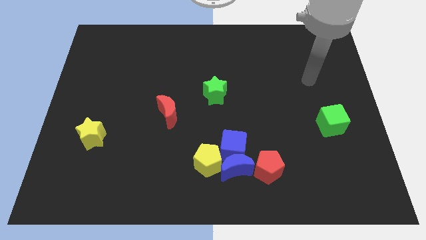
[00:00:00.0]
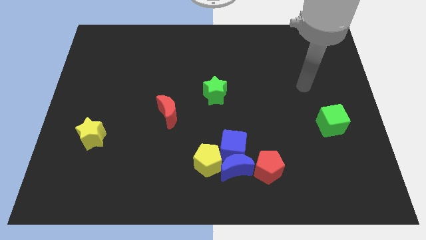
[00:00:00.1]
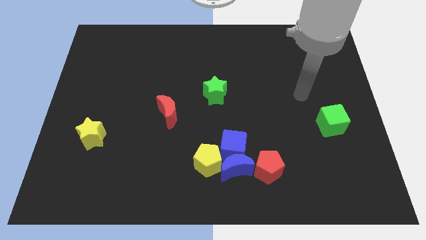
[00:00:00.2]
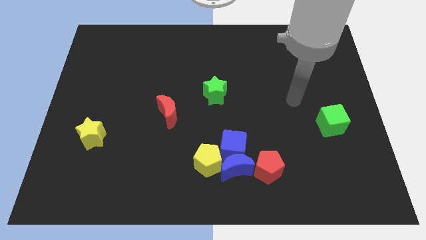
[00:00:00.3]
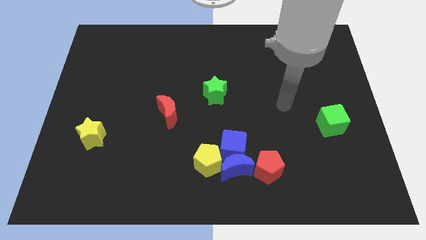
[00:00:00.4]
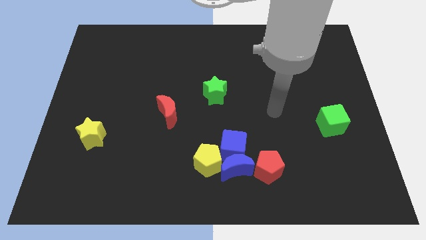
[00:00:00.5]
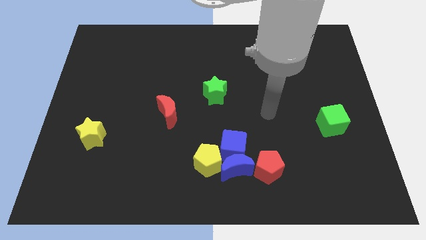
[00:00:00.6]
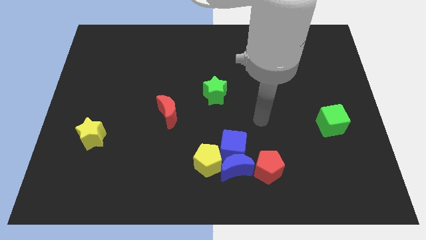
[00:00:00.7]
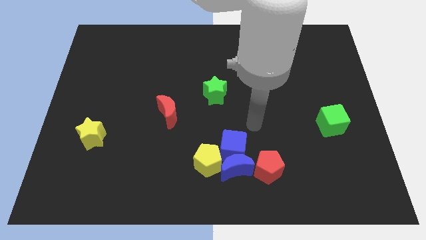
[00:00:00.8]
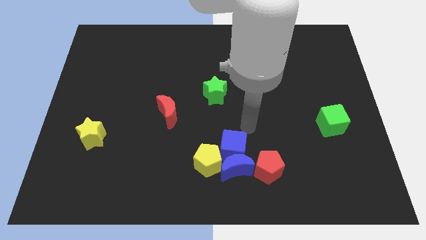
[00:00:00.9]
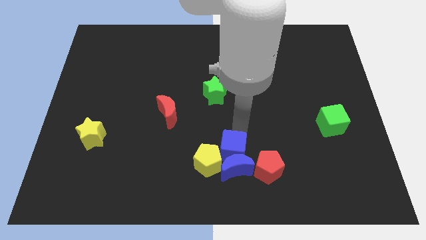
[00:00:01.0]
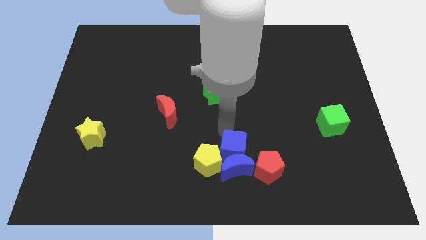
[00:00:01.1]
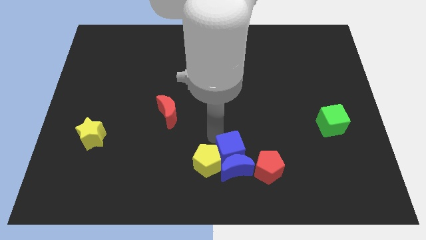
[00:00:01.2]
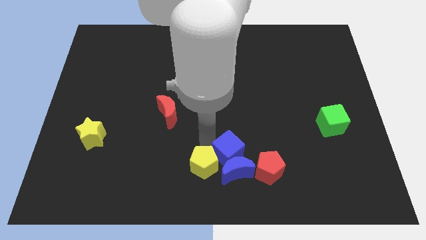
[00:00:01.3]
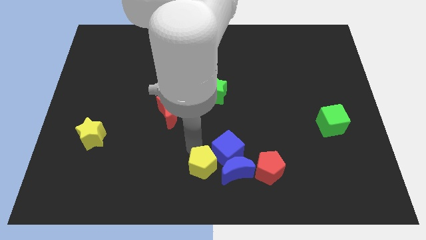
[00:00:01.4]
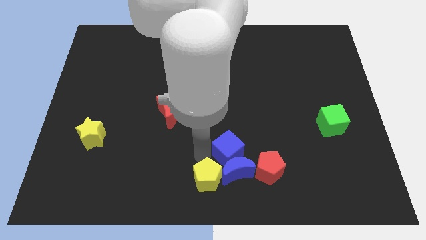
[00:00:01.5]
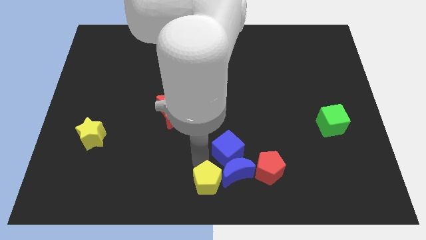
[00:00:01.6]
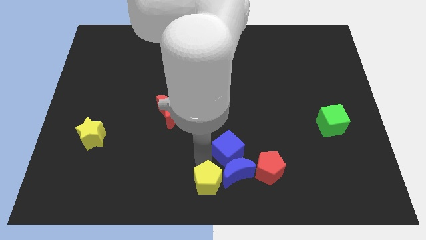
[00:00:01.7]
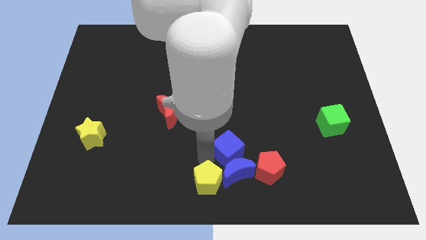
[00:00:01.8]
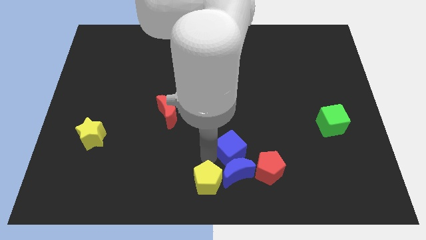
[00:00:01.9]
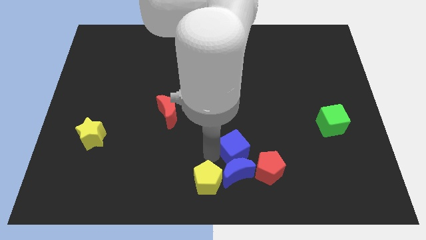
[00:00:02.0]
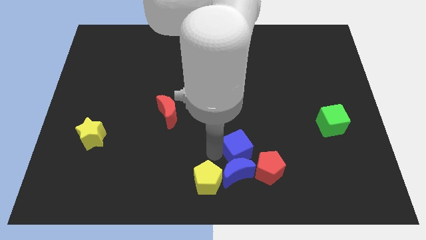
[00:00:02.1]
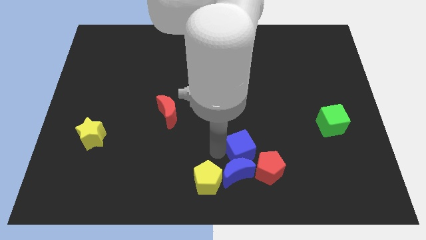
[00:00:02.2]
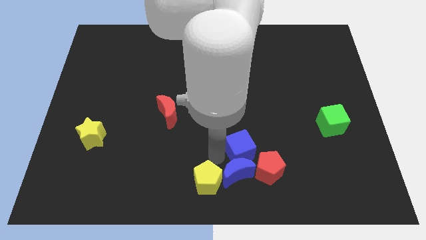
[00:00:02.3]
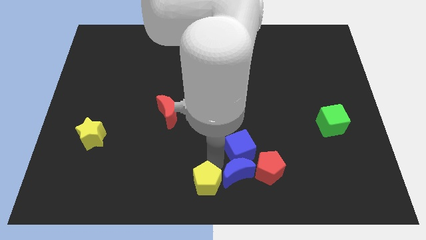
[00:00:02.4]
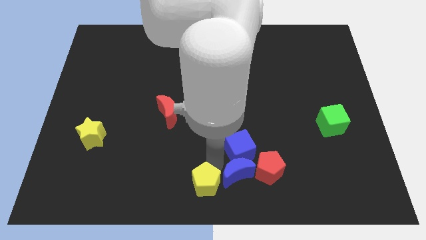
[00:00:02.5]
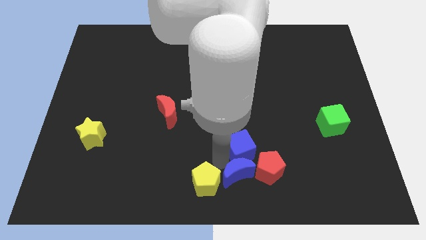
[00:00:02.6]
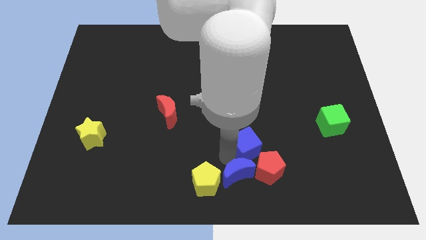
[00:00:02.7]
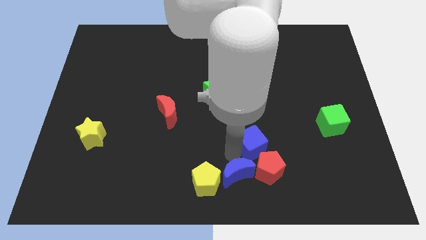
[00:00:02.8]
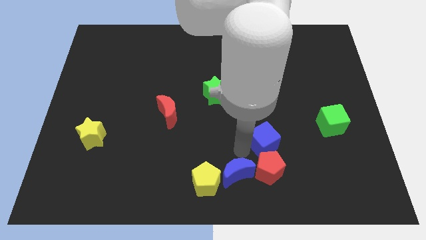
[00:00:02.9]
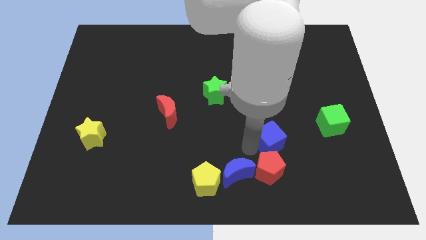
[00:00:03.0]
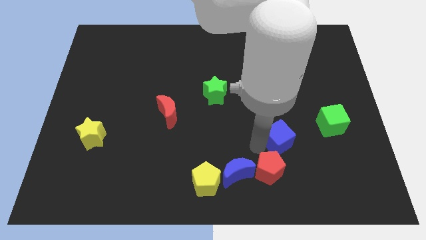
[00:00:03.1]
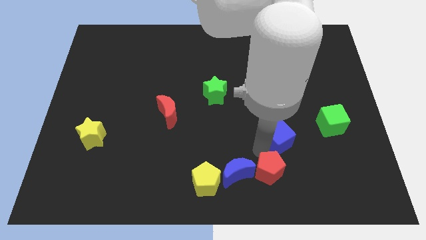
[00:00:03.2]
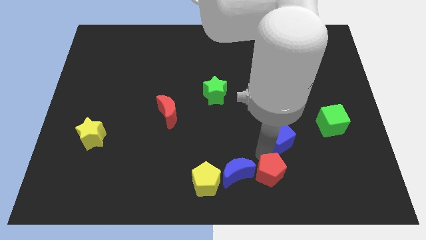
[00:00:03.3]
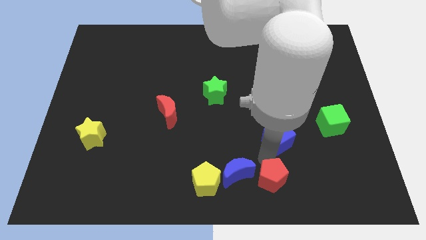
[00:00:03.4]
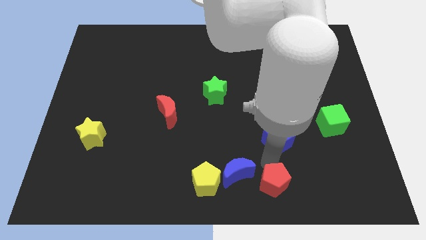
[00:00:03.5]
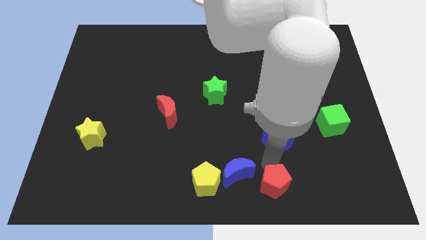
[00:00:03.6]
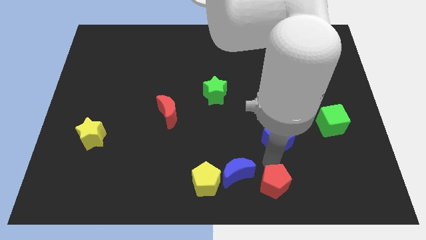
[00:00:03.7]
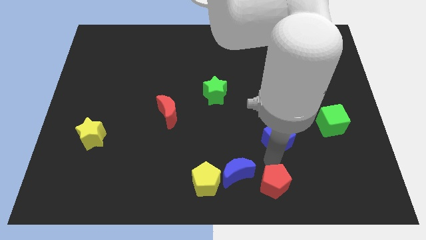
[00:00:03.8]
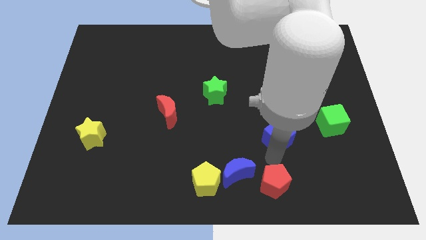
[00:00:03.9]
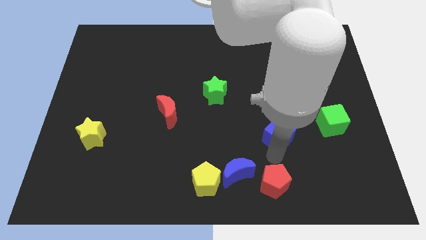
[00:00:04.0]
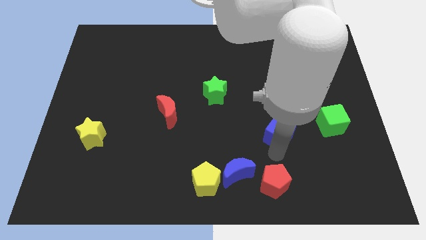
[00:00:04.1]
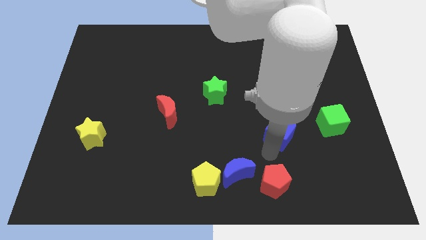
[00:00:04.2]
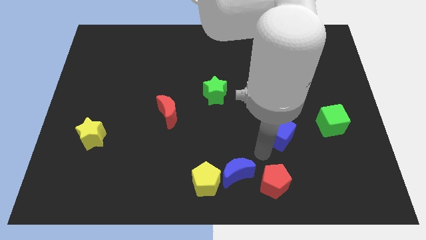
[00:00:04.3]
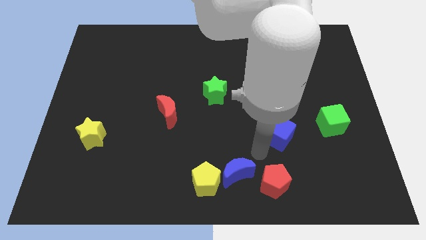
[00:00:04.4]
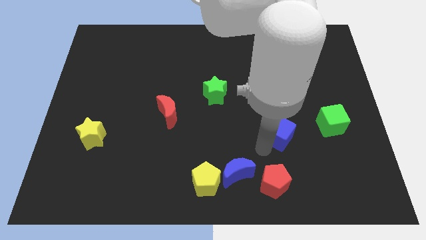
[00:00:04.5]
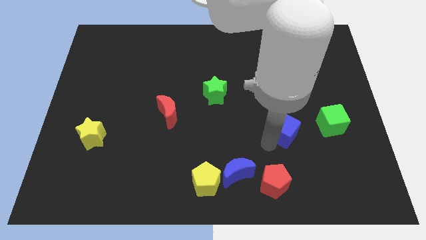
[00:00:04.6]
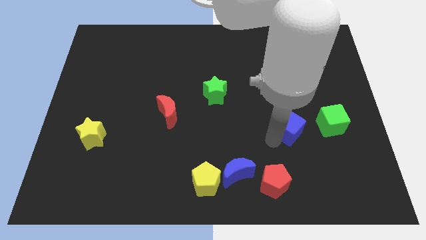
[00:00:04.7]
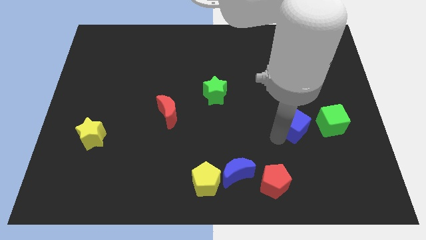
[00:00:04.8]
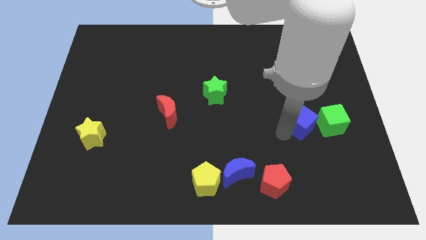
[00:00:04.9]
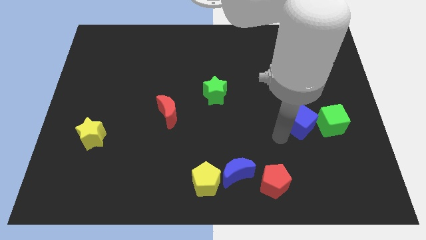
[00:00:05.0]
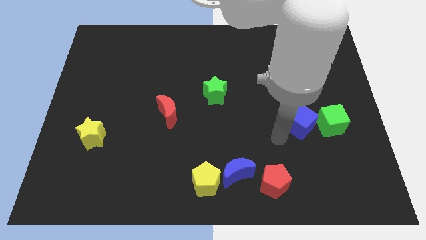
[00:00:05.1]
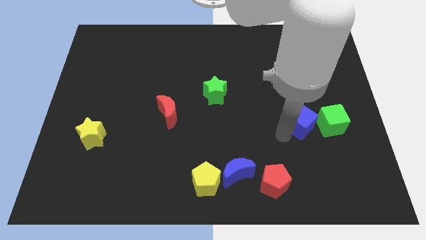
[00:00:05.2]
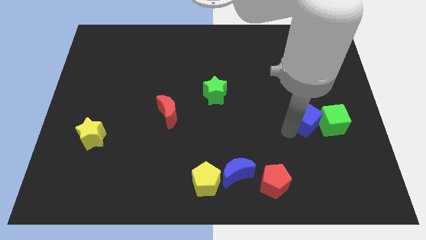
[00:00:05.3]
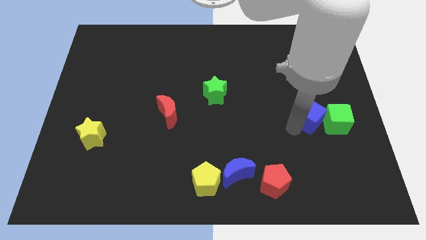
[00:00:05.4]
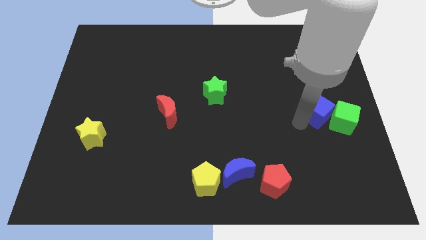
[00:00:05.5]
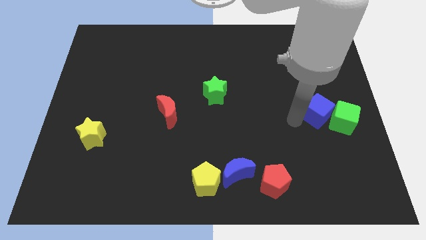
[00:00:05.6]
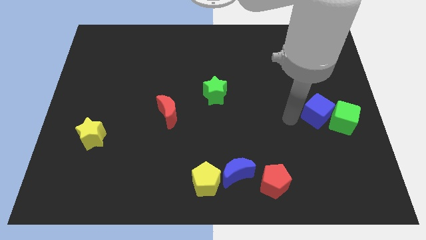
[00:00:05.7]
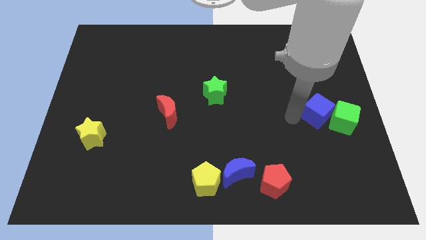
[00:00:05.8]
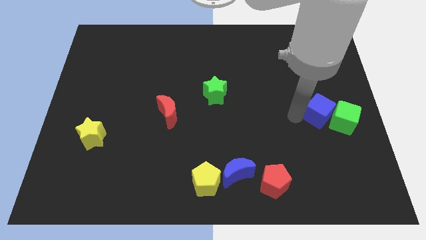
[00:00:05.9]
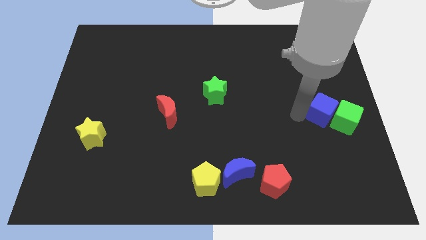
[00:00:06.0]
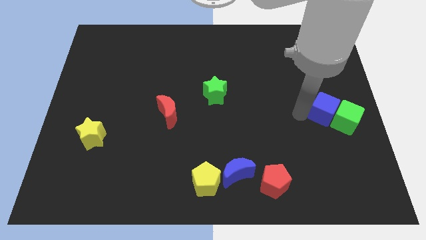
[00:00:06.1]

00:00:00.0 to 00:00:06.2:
push the blue cube to the right side of the board
